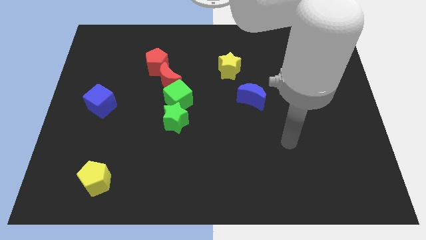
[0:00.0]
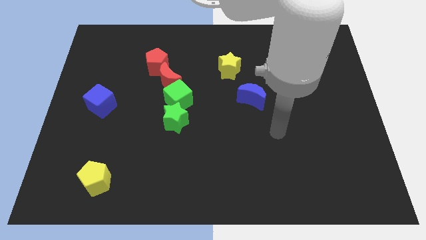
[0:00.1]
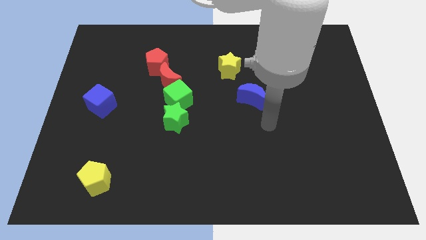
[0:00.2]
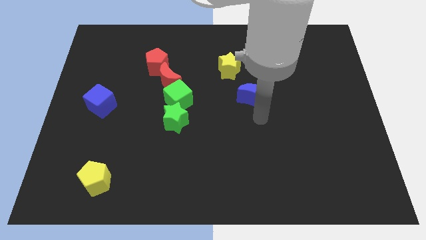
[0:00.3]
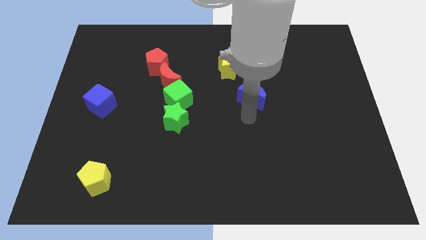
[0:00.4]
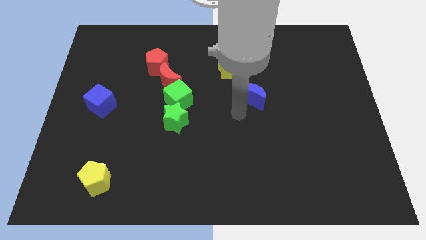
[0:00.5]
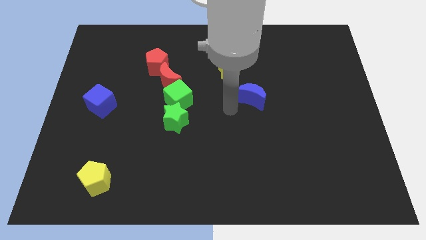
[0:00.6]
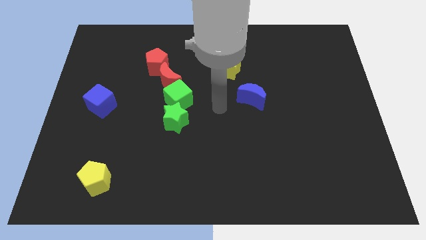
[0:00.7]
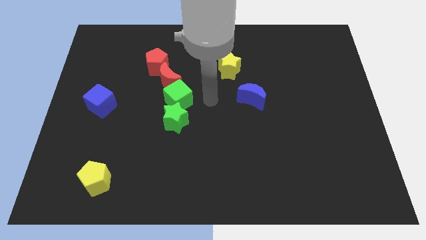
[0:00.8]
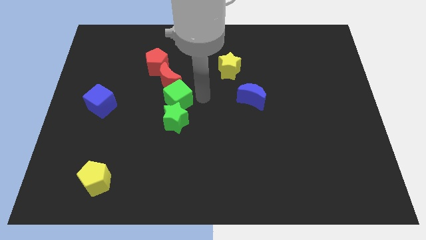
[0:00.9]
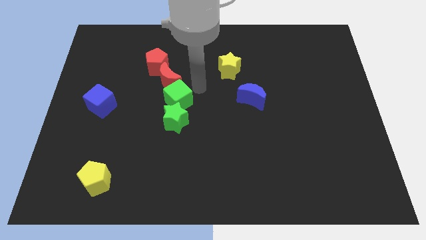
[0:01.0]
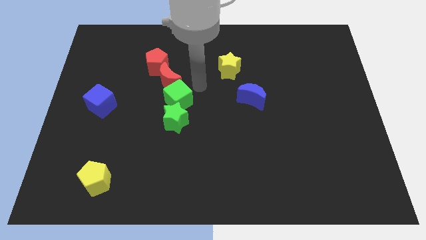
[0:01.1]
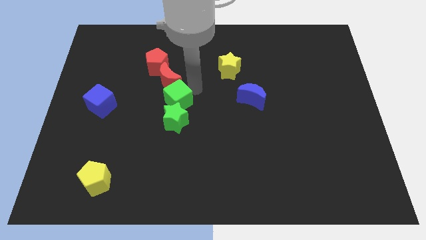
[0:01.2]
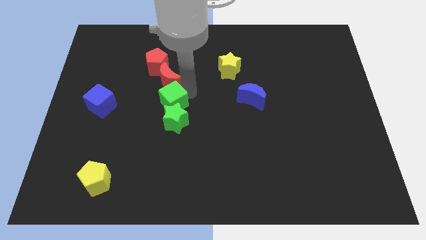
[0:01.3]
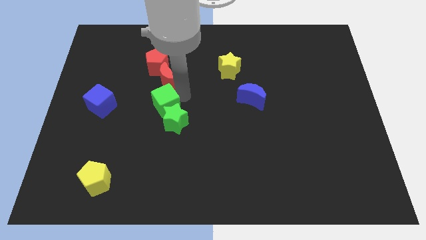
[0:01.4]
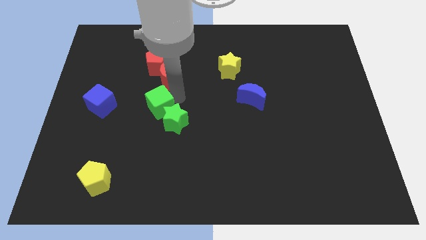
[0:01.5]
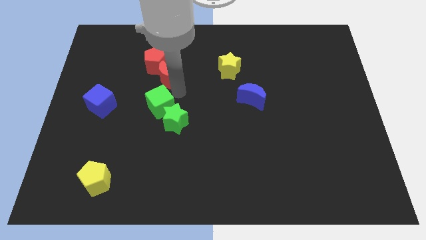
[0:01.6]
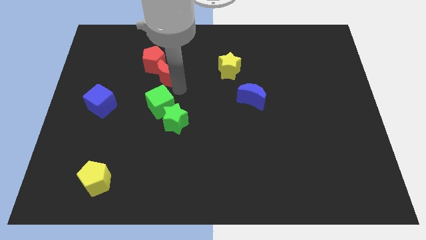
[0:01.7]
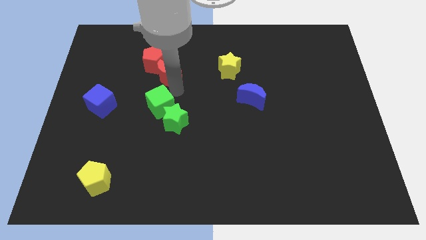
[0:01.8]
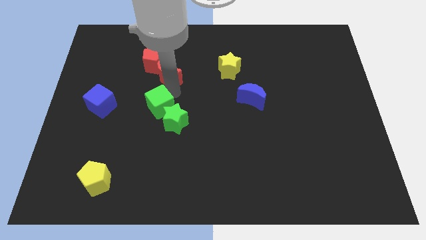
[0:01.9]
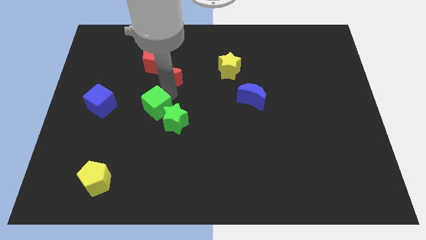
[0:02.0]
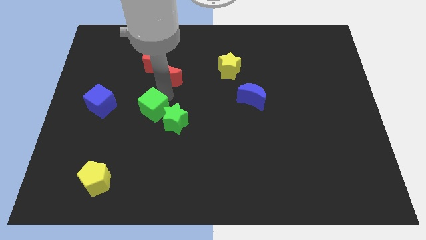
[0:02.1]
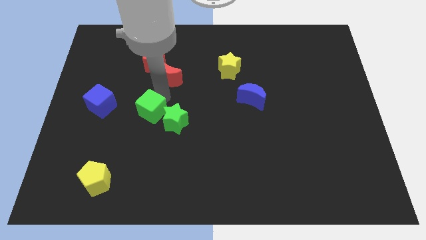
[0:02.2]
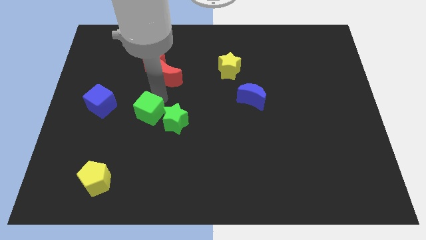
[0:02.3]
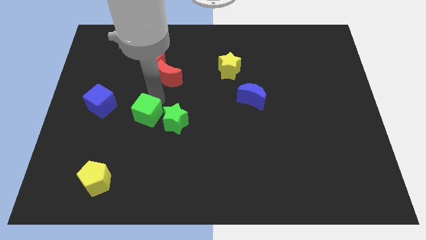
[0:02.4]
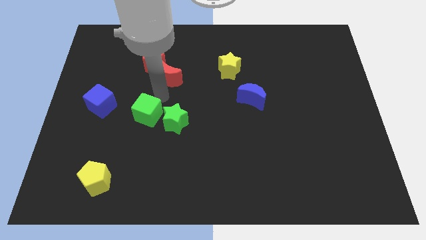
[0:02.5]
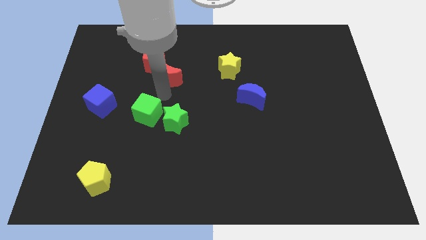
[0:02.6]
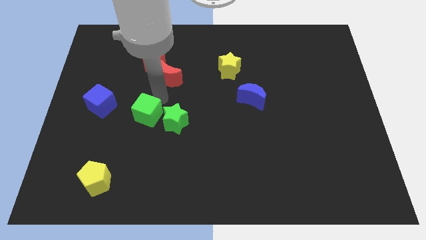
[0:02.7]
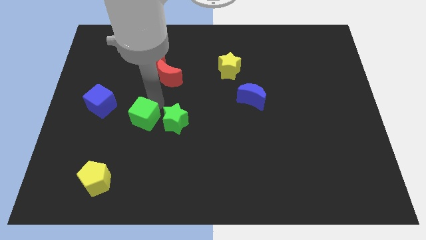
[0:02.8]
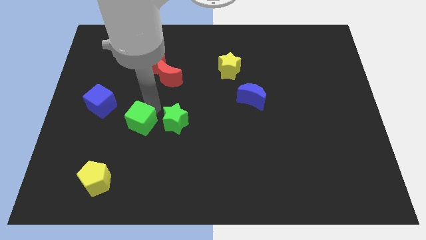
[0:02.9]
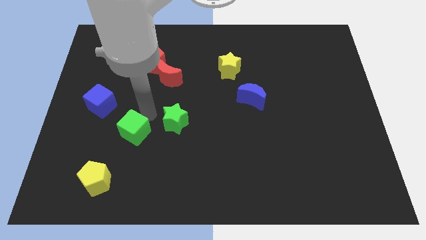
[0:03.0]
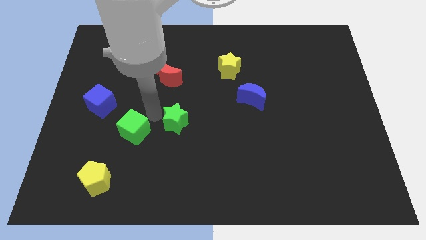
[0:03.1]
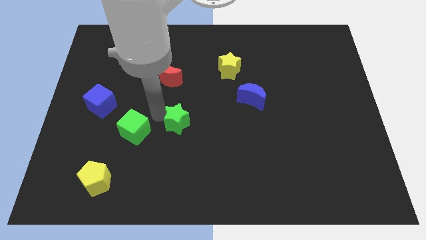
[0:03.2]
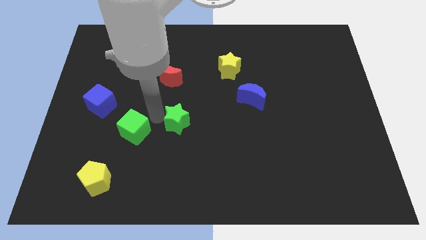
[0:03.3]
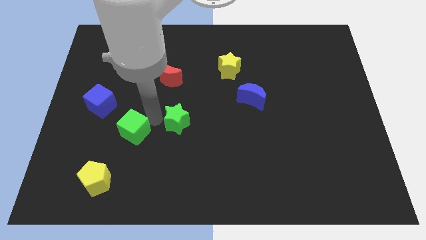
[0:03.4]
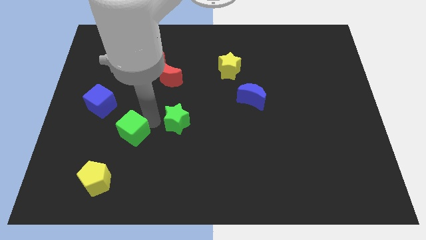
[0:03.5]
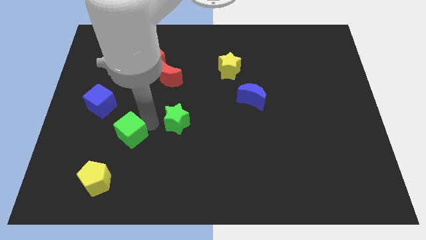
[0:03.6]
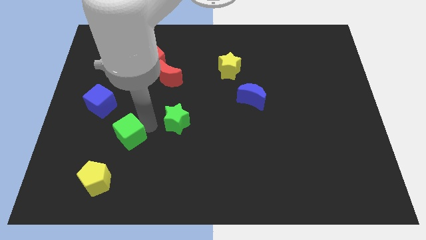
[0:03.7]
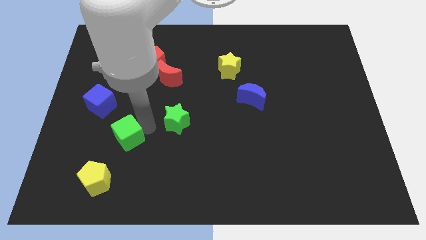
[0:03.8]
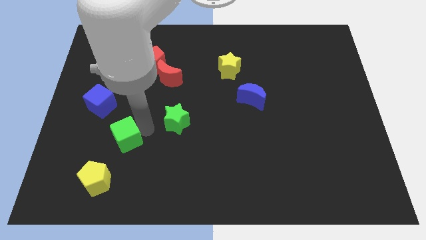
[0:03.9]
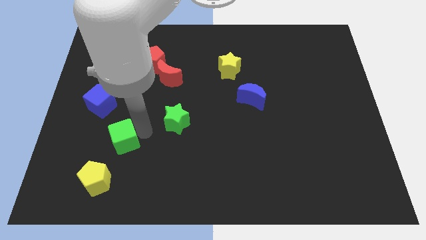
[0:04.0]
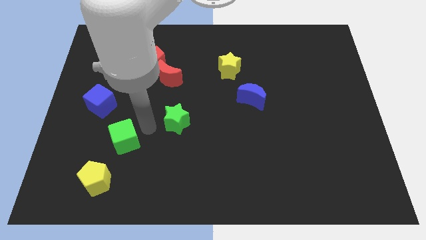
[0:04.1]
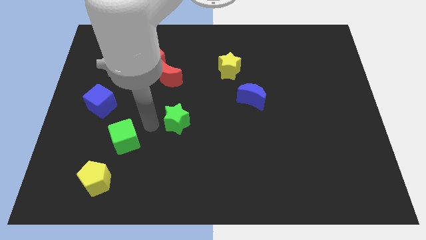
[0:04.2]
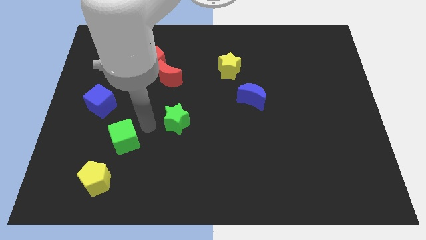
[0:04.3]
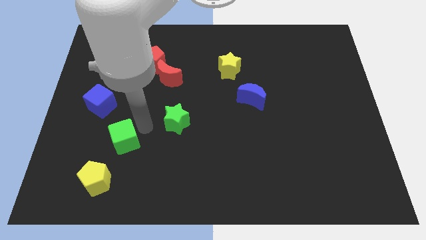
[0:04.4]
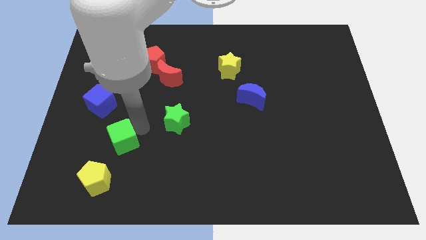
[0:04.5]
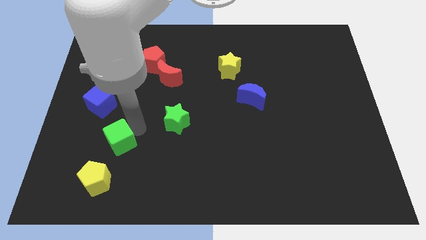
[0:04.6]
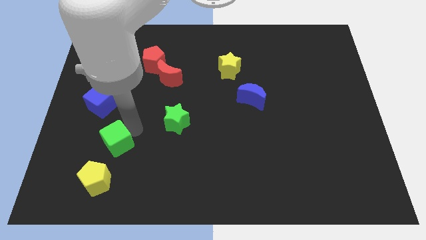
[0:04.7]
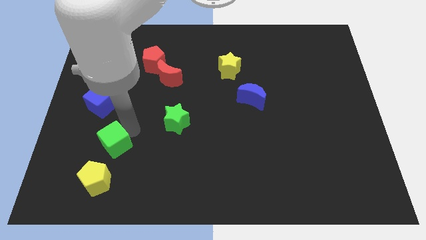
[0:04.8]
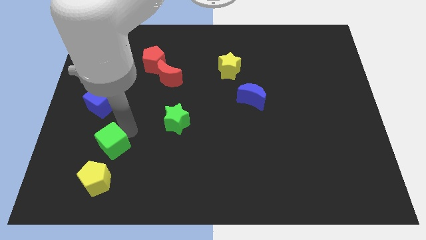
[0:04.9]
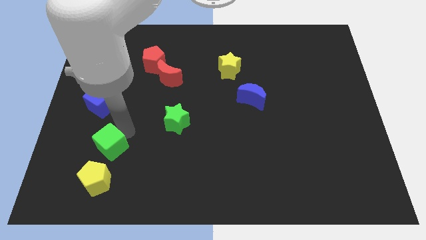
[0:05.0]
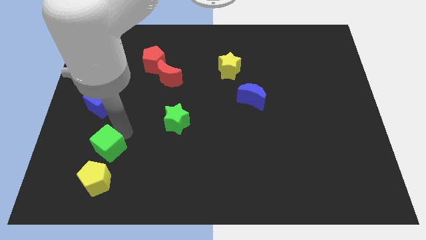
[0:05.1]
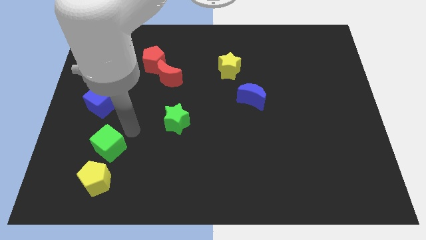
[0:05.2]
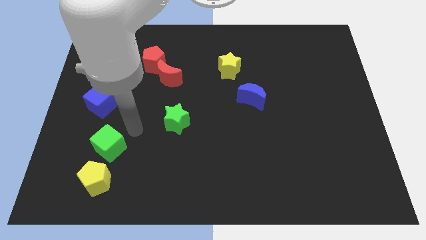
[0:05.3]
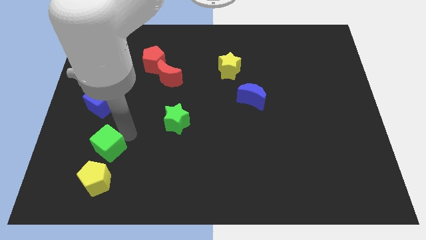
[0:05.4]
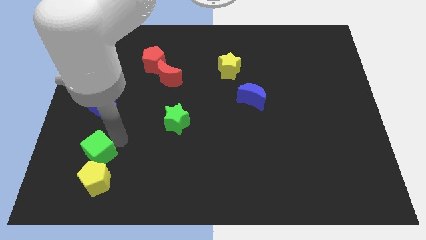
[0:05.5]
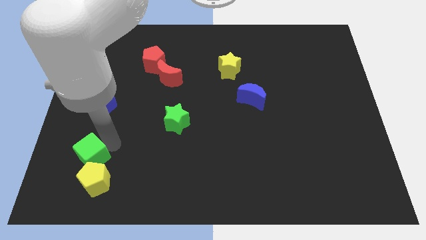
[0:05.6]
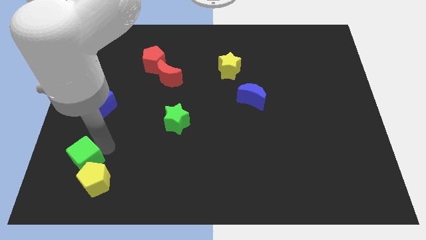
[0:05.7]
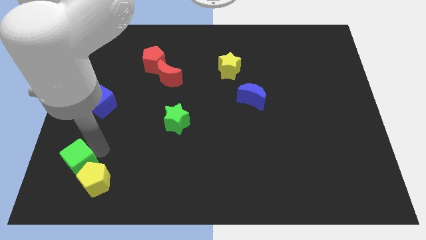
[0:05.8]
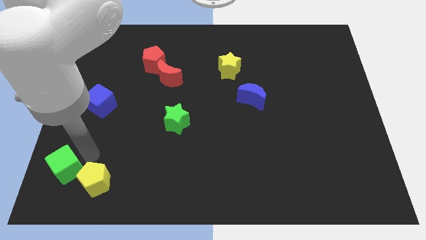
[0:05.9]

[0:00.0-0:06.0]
slide the green cube to the bottom left

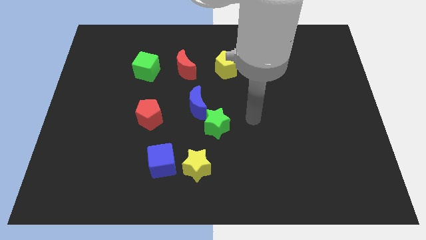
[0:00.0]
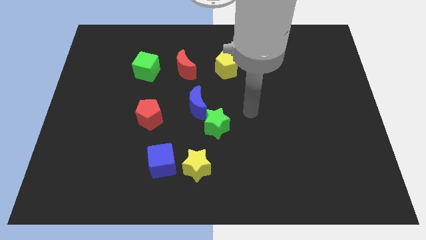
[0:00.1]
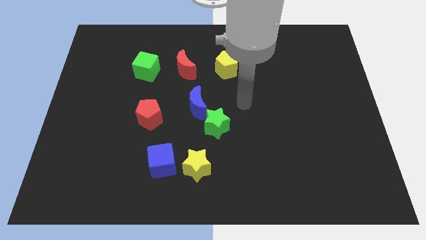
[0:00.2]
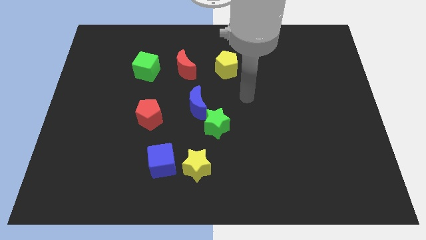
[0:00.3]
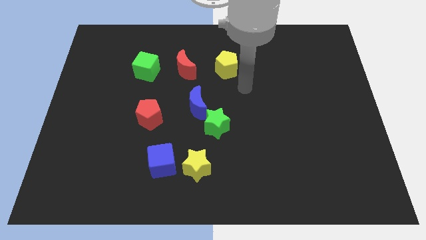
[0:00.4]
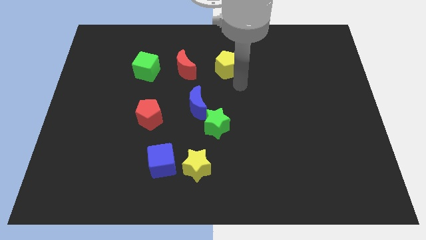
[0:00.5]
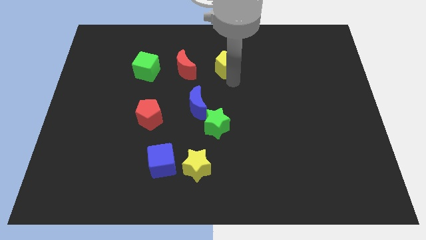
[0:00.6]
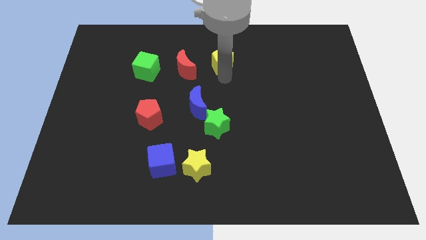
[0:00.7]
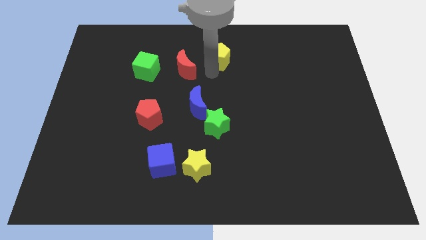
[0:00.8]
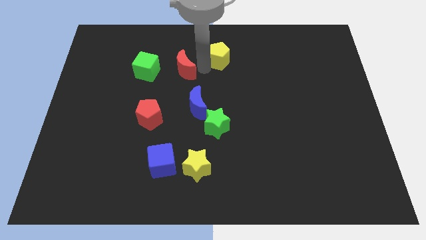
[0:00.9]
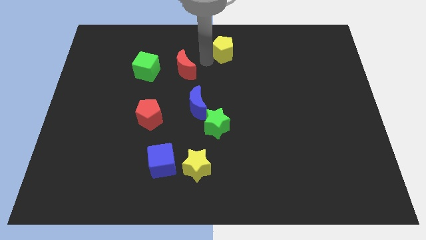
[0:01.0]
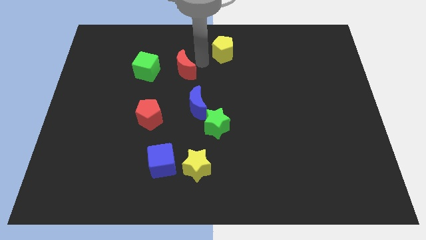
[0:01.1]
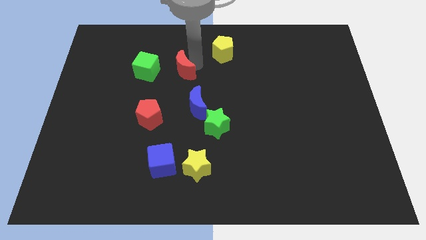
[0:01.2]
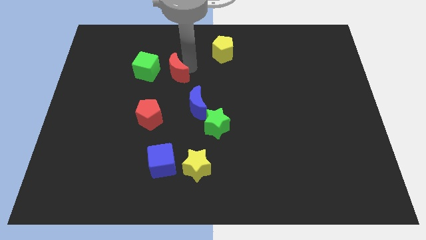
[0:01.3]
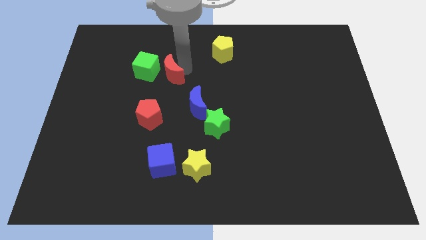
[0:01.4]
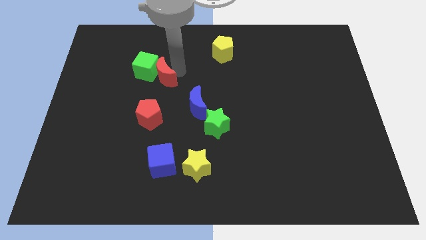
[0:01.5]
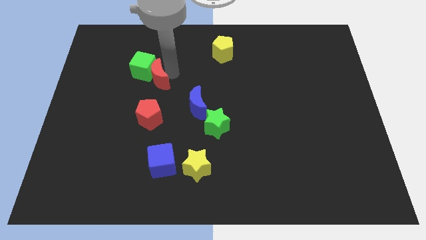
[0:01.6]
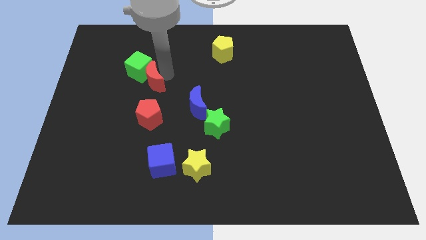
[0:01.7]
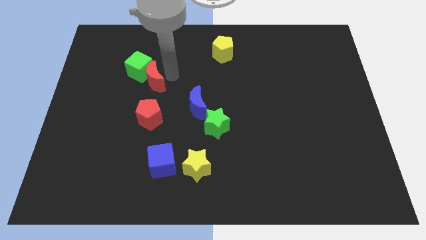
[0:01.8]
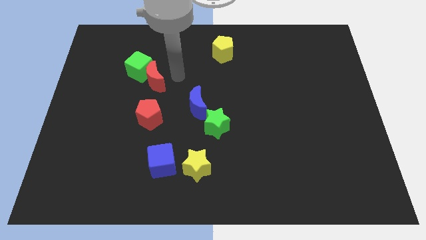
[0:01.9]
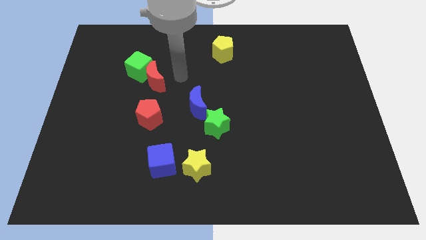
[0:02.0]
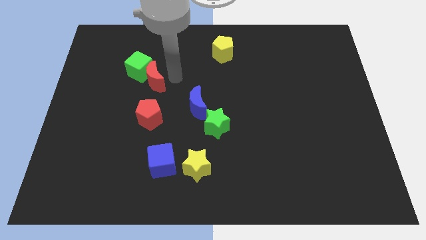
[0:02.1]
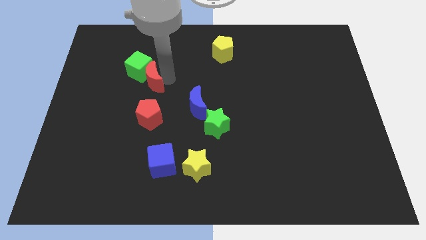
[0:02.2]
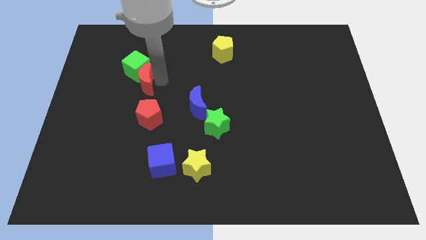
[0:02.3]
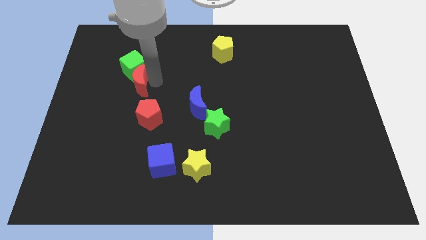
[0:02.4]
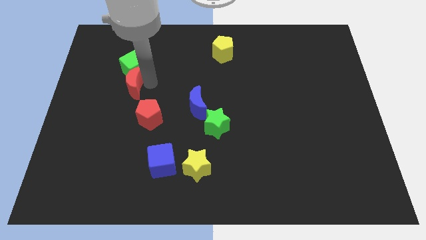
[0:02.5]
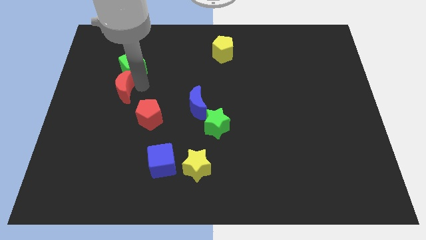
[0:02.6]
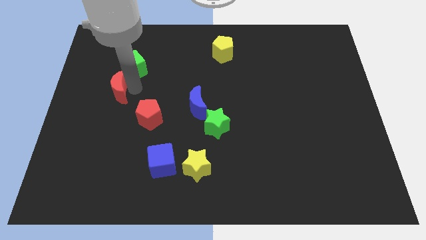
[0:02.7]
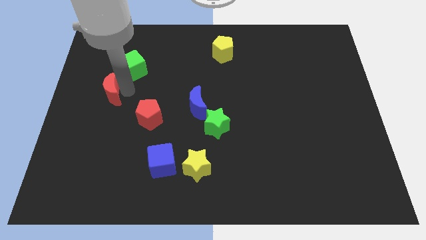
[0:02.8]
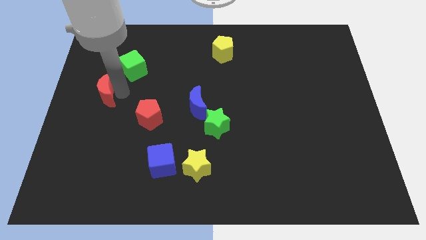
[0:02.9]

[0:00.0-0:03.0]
push the red moon to the left side
